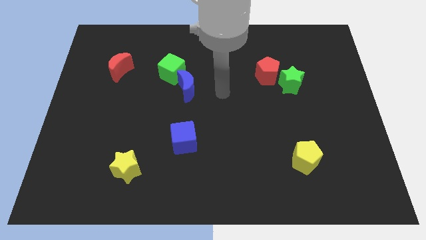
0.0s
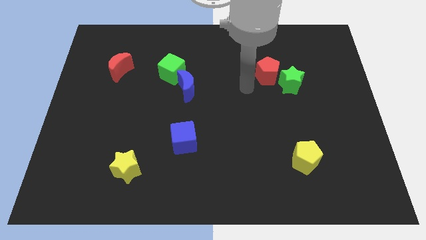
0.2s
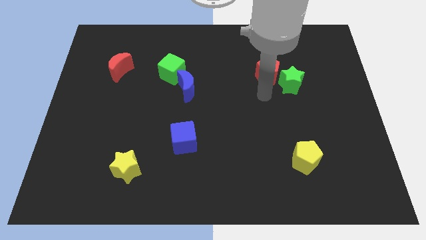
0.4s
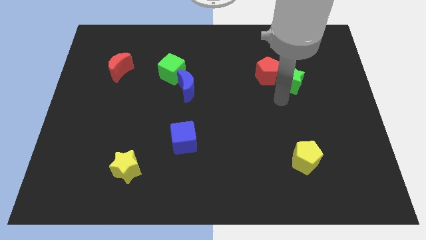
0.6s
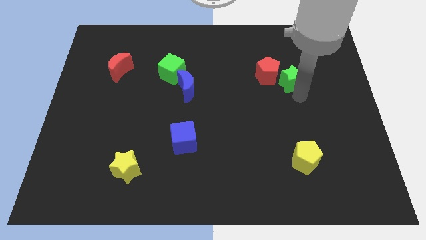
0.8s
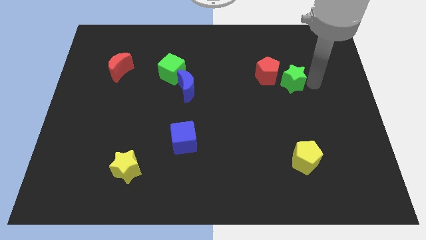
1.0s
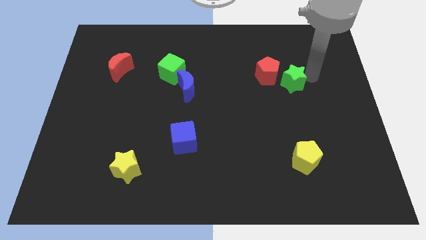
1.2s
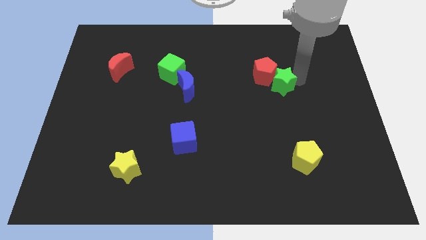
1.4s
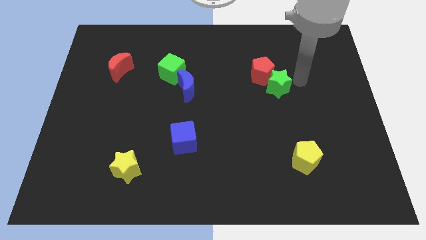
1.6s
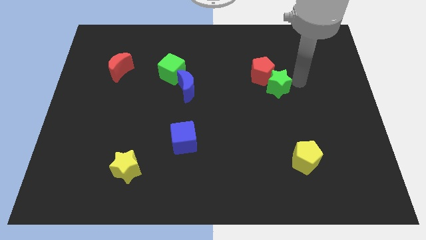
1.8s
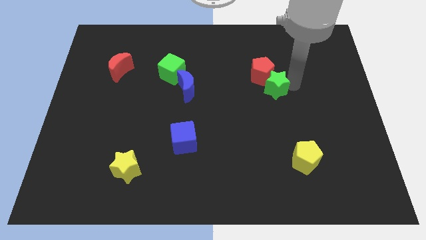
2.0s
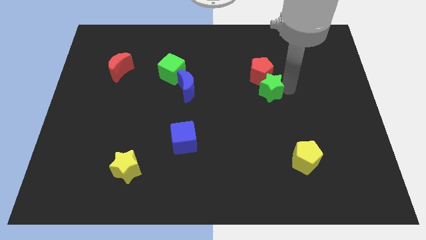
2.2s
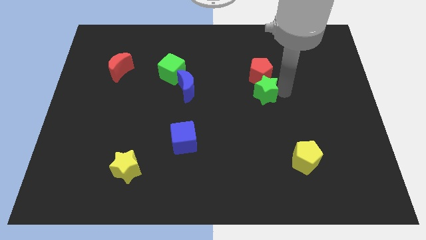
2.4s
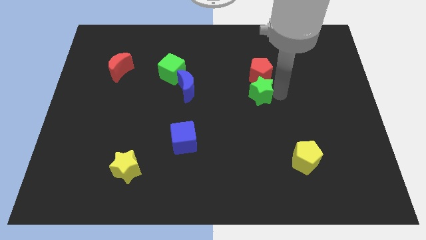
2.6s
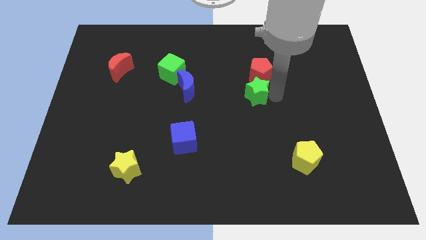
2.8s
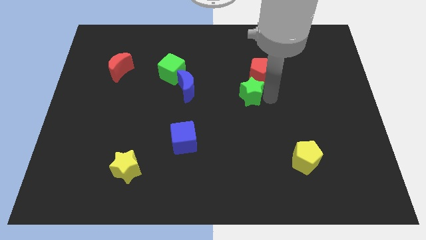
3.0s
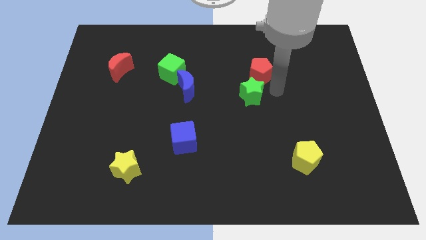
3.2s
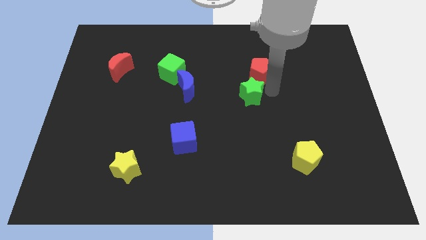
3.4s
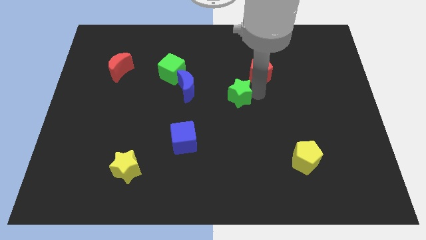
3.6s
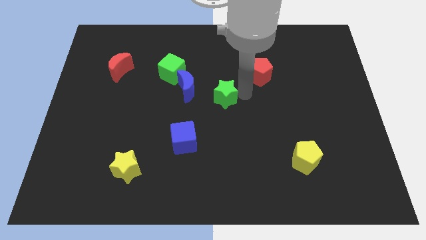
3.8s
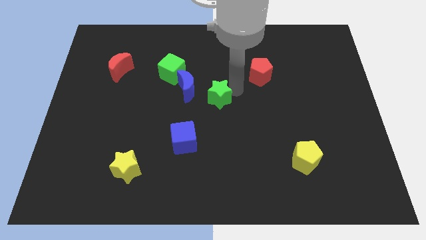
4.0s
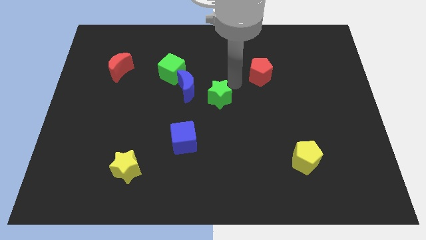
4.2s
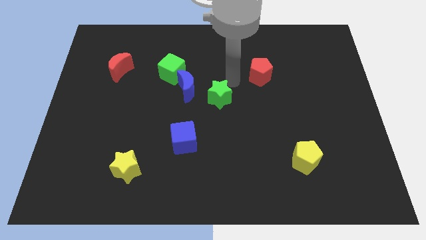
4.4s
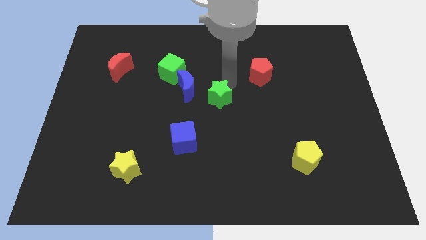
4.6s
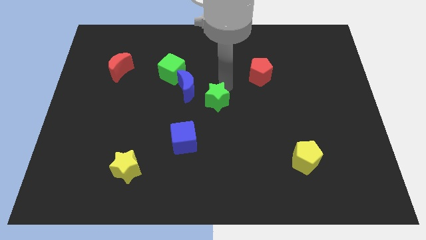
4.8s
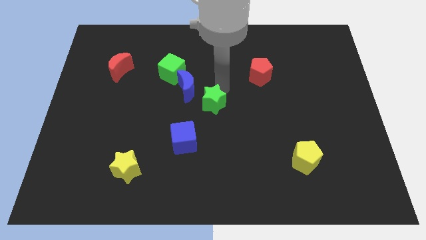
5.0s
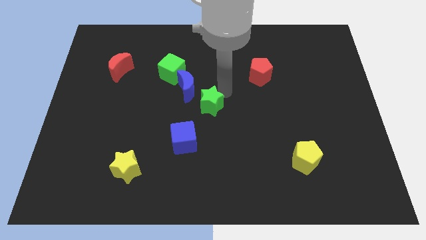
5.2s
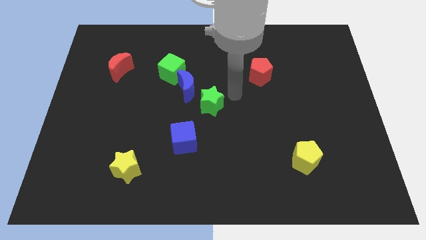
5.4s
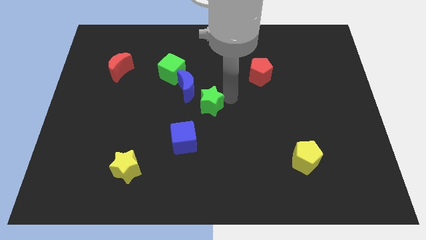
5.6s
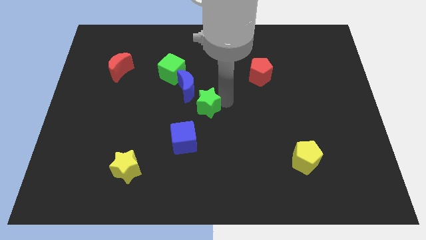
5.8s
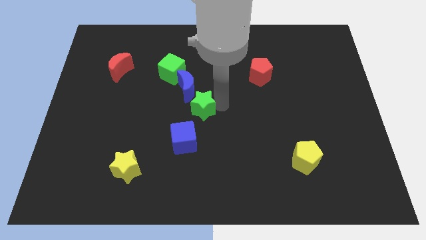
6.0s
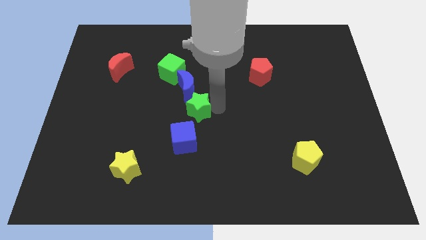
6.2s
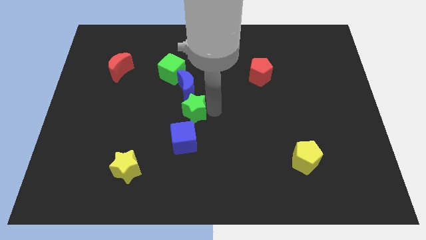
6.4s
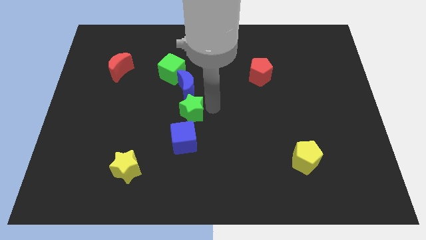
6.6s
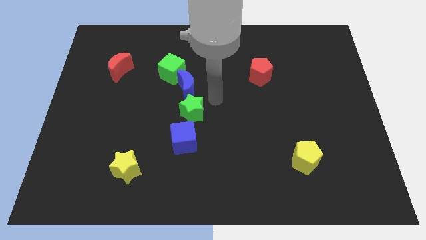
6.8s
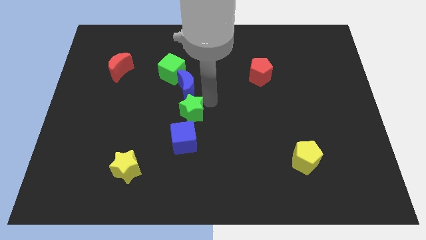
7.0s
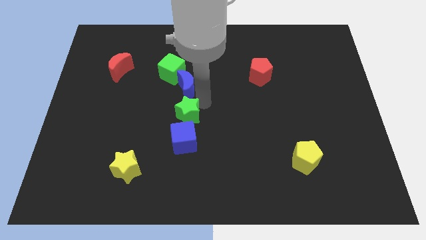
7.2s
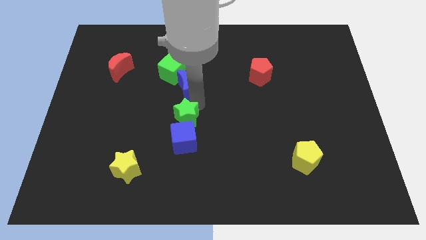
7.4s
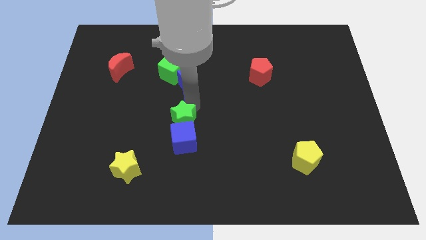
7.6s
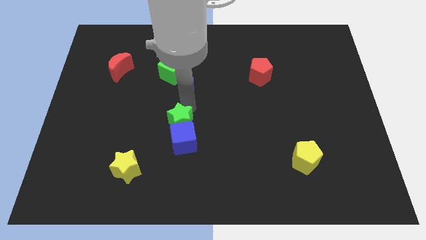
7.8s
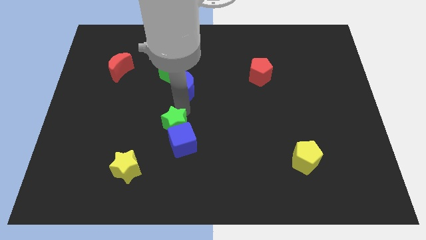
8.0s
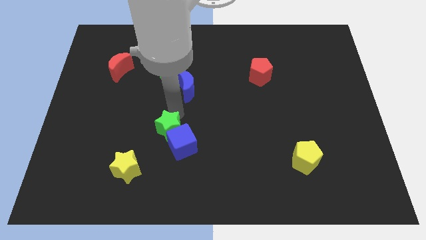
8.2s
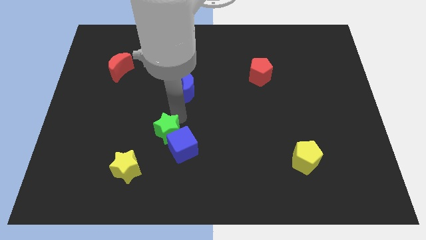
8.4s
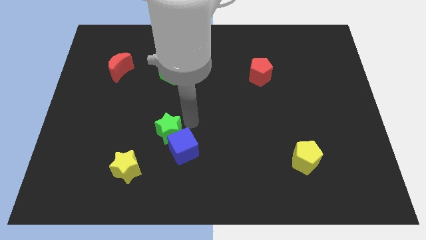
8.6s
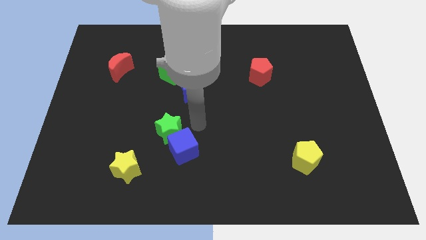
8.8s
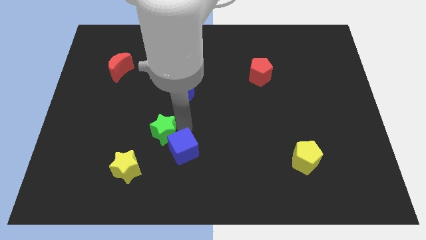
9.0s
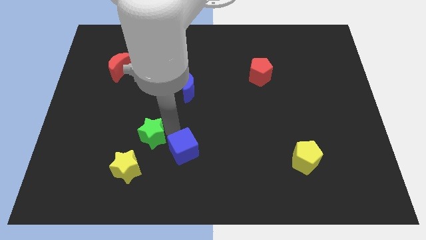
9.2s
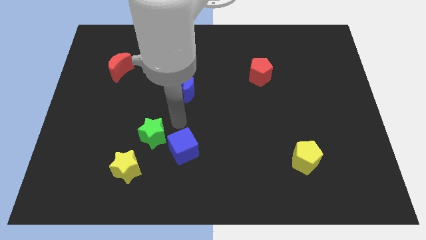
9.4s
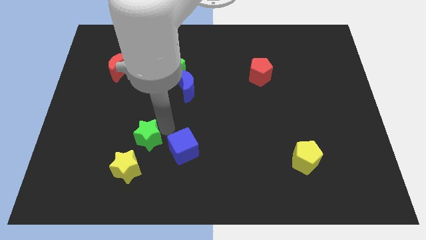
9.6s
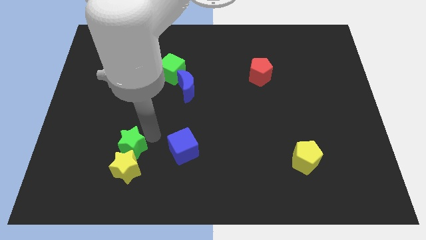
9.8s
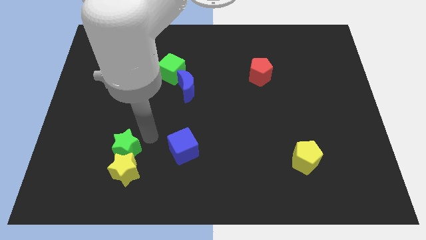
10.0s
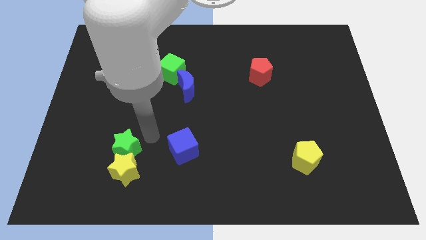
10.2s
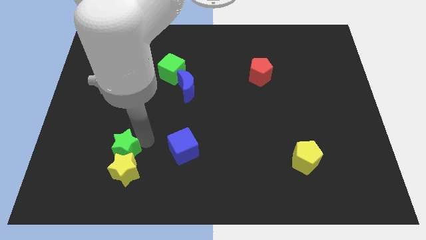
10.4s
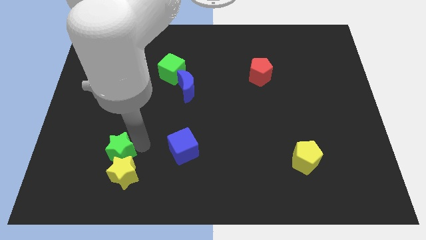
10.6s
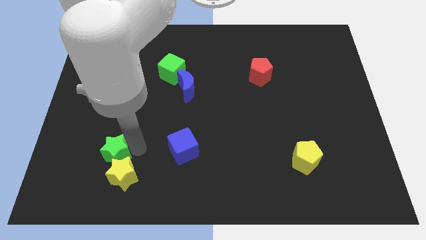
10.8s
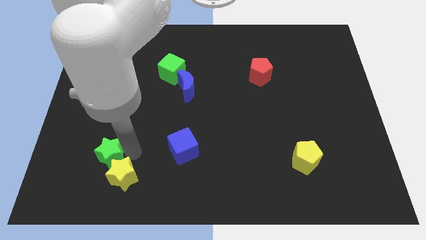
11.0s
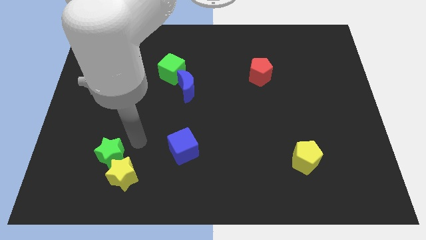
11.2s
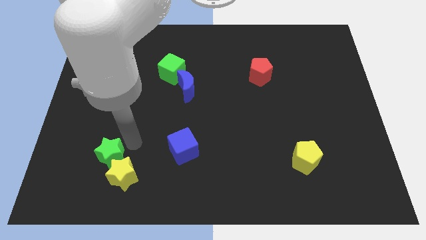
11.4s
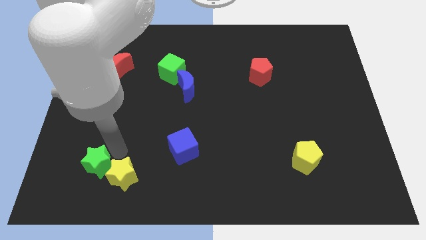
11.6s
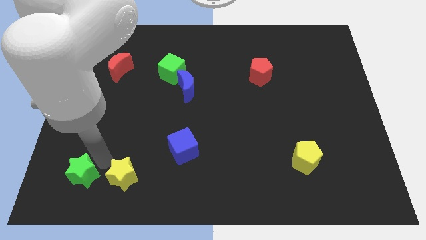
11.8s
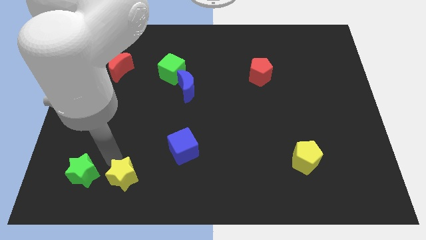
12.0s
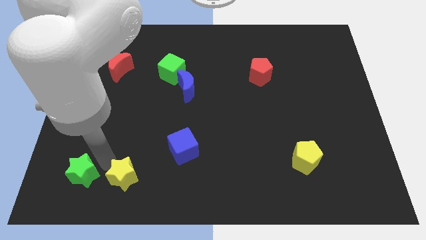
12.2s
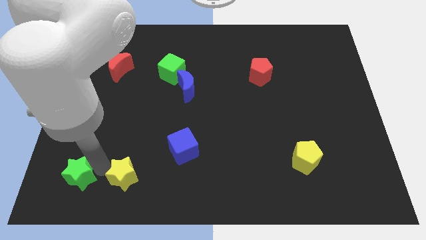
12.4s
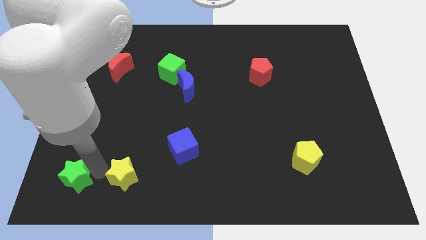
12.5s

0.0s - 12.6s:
put the green star to the bottom left

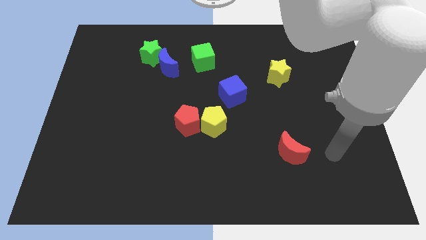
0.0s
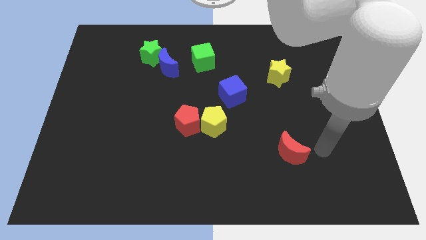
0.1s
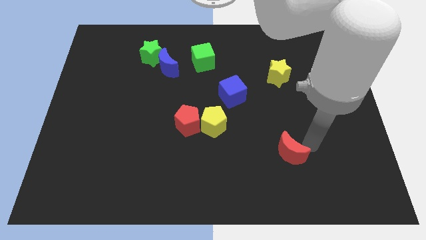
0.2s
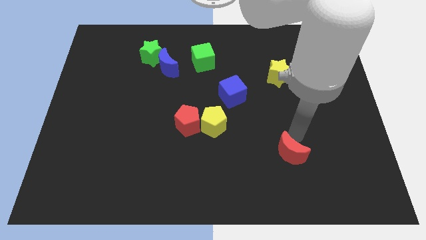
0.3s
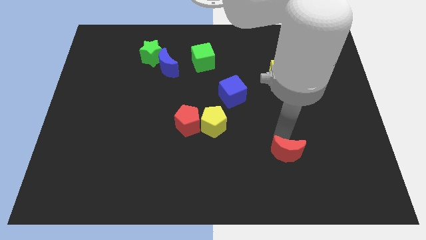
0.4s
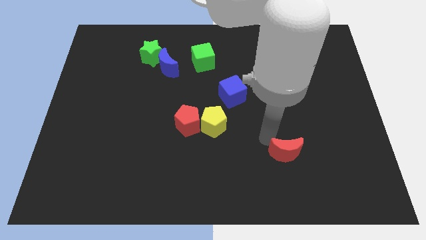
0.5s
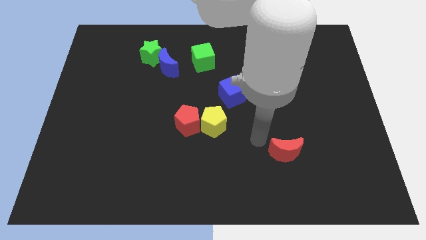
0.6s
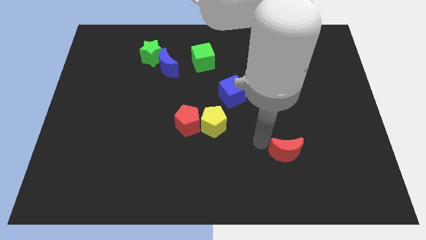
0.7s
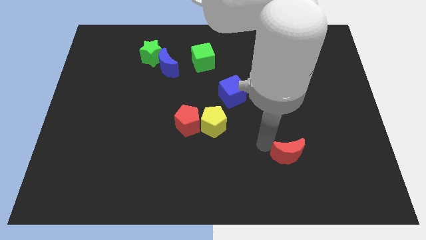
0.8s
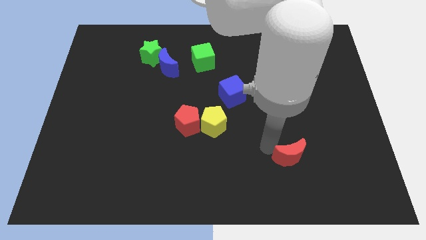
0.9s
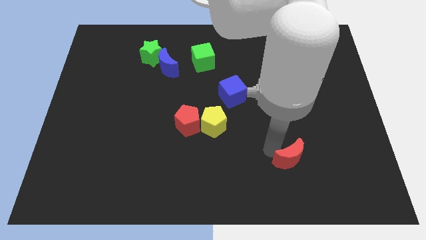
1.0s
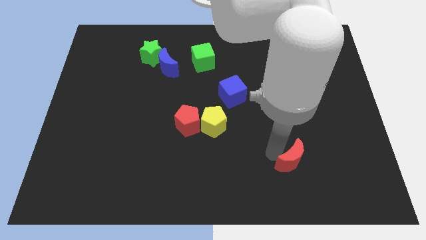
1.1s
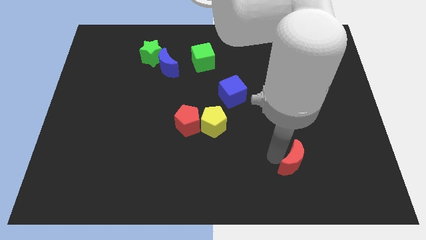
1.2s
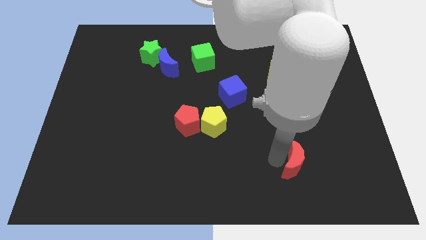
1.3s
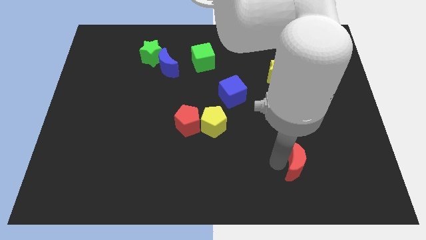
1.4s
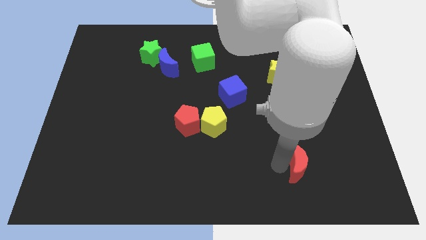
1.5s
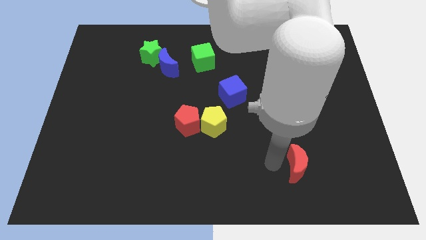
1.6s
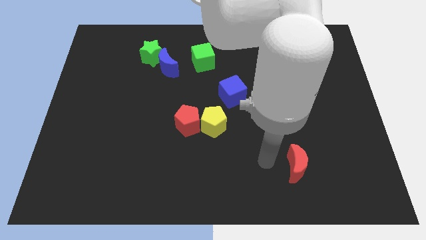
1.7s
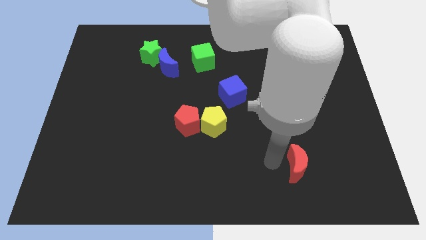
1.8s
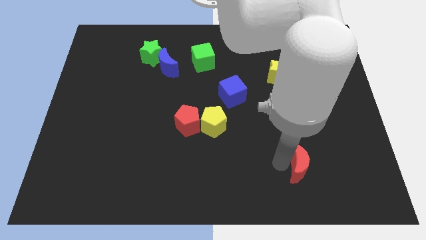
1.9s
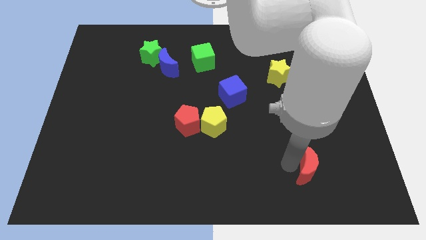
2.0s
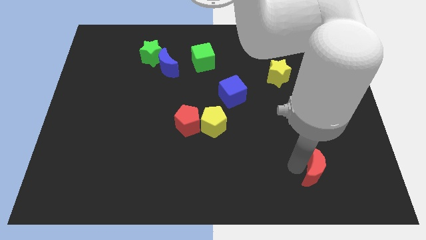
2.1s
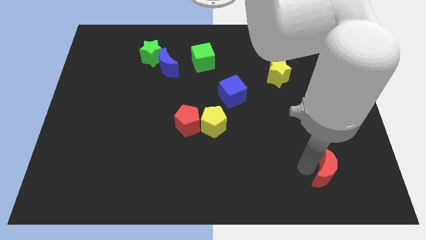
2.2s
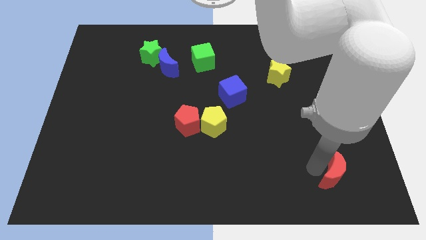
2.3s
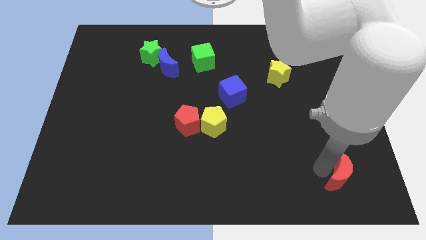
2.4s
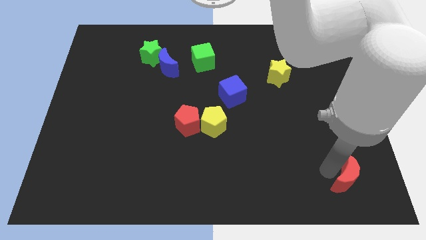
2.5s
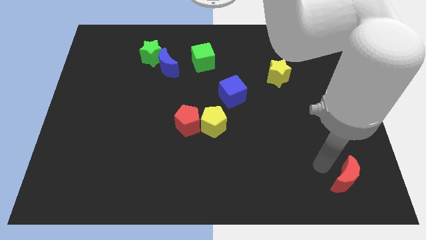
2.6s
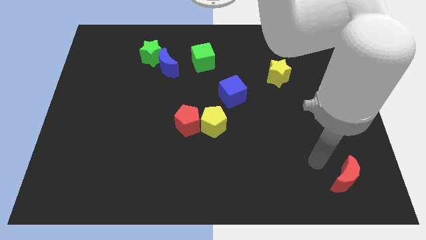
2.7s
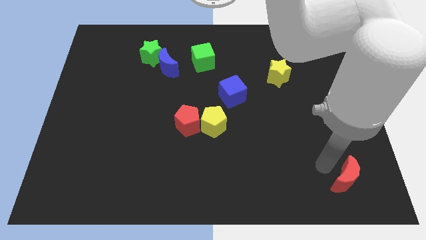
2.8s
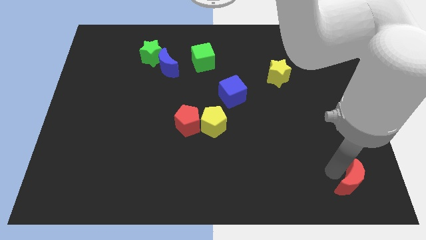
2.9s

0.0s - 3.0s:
push the red moon to the bottom right corner
